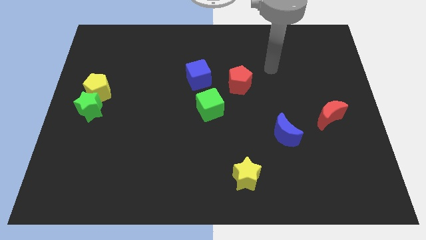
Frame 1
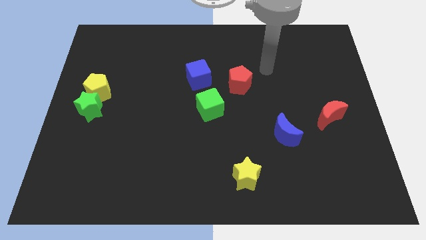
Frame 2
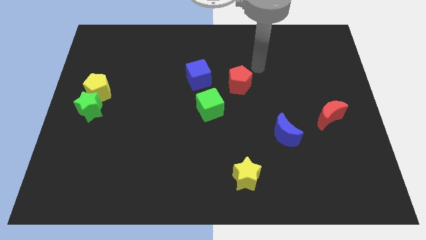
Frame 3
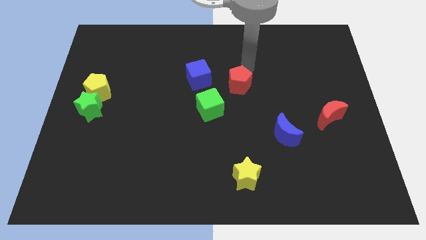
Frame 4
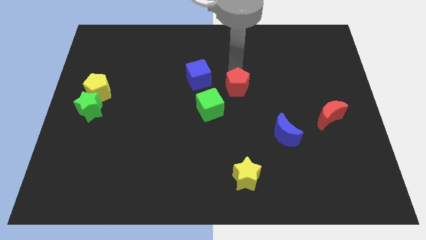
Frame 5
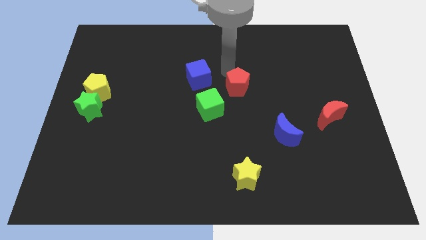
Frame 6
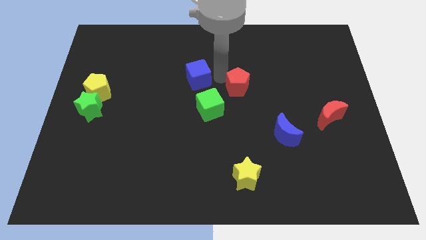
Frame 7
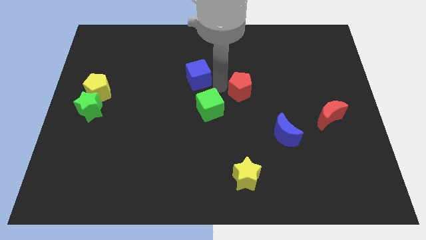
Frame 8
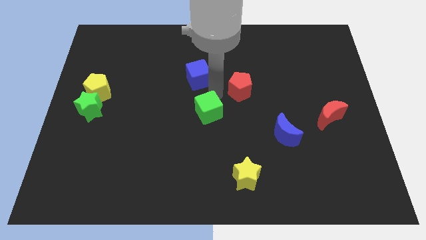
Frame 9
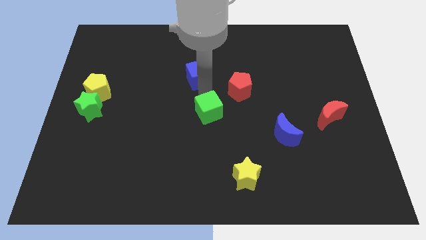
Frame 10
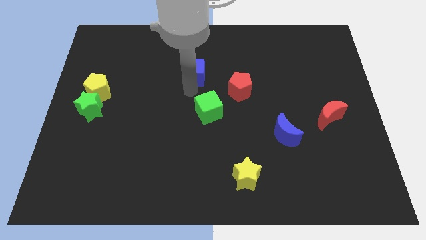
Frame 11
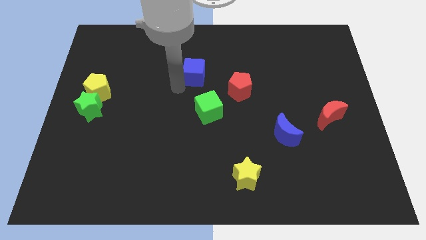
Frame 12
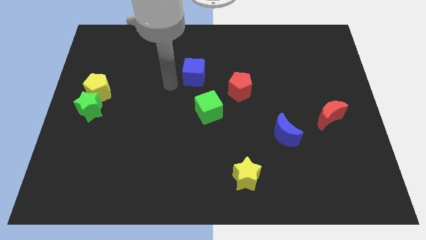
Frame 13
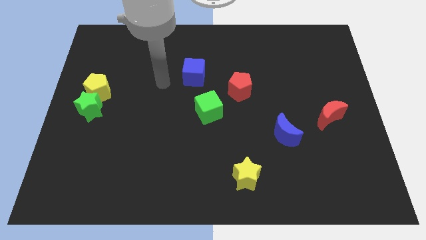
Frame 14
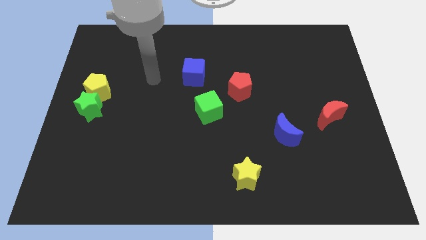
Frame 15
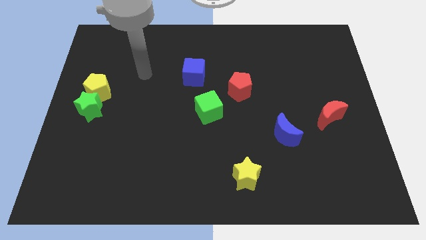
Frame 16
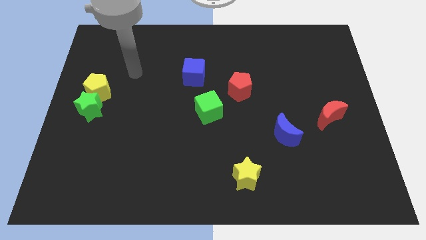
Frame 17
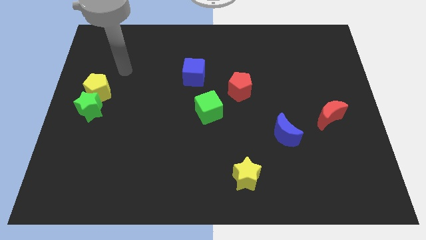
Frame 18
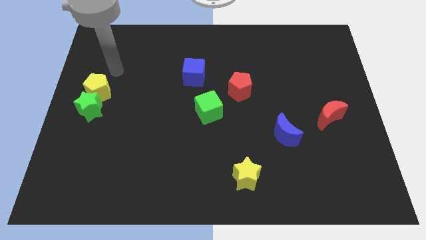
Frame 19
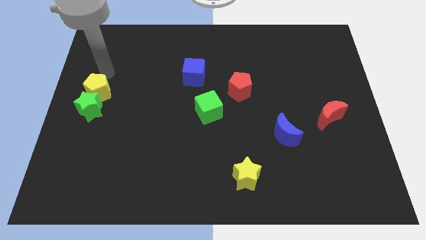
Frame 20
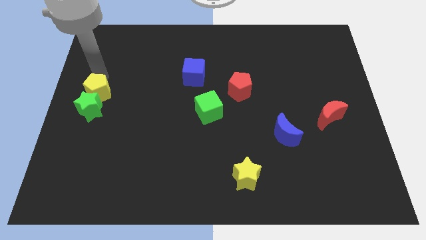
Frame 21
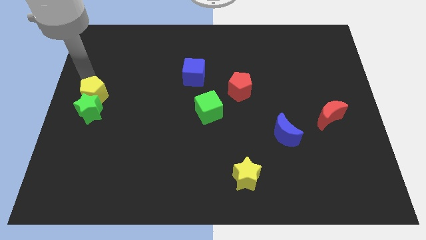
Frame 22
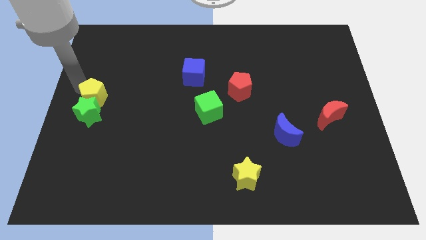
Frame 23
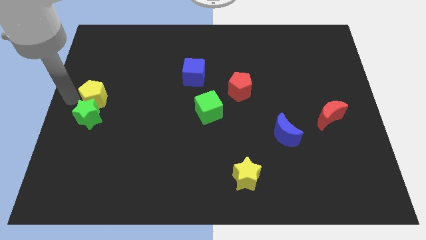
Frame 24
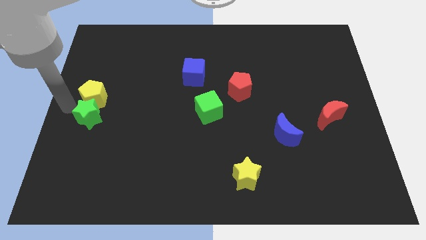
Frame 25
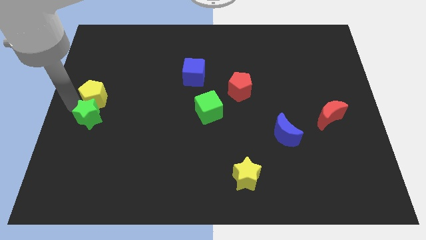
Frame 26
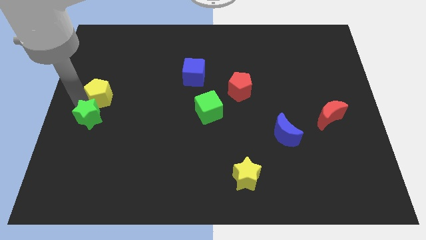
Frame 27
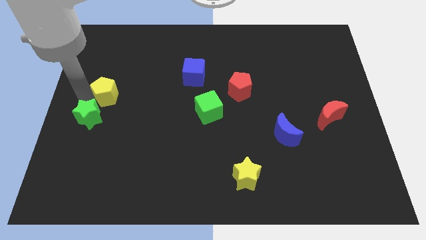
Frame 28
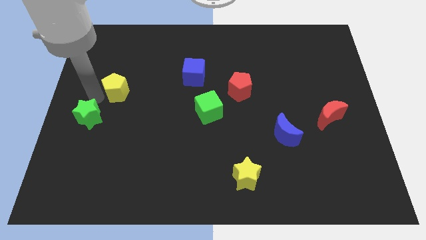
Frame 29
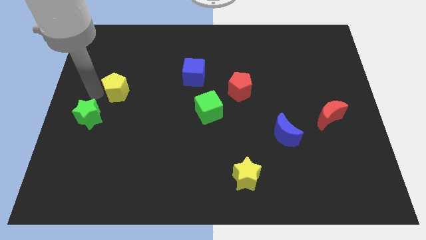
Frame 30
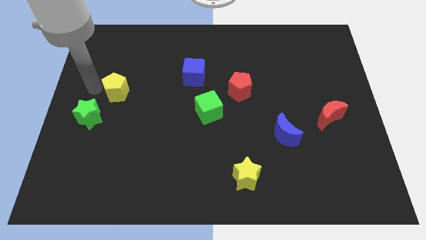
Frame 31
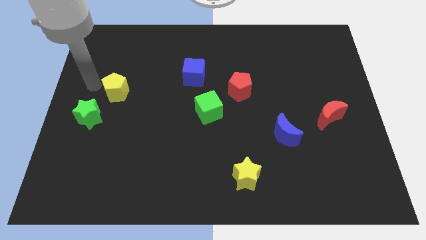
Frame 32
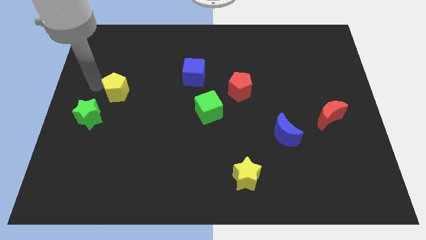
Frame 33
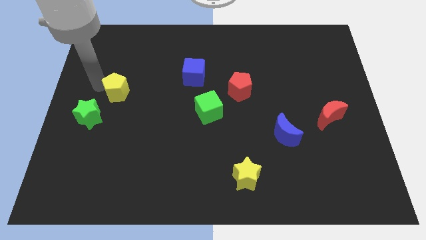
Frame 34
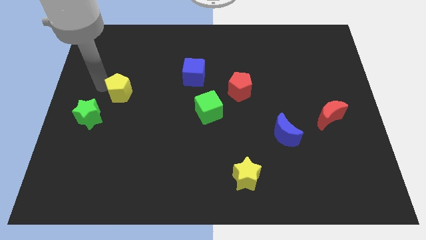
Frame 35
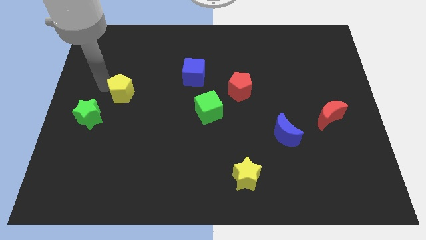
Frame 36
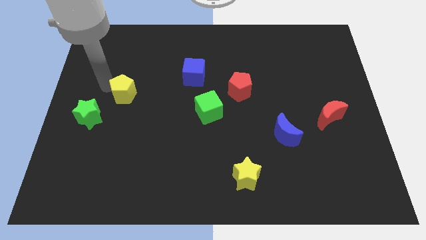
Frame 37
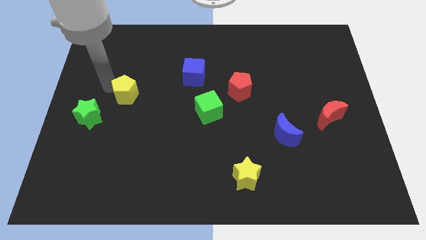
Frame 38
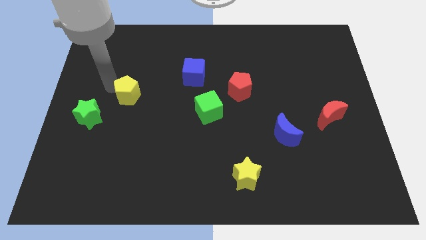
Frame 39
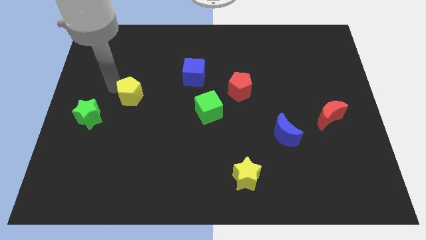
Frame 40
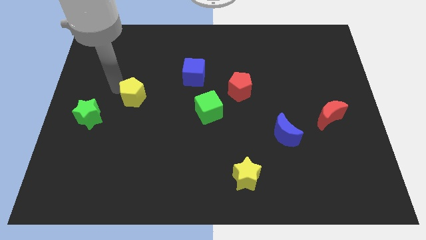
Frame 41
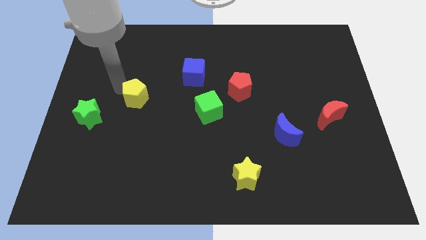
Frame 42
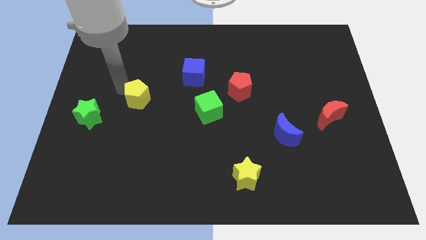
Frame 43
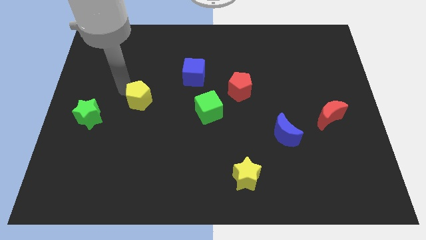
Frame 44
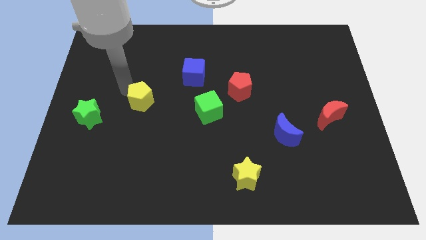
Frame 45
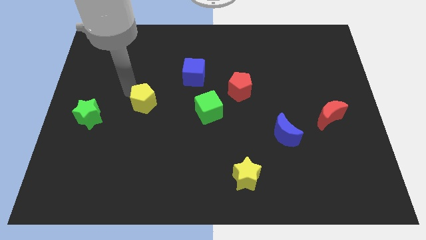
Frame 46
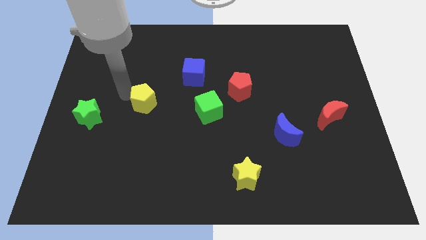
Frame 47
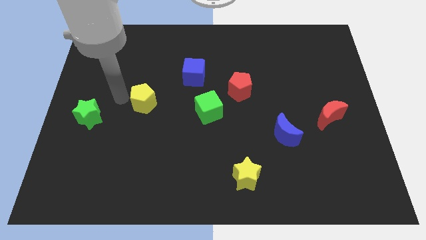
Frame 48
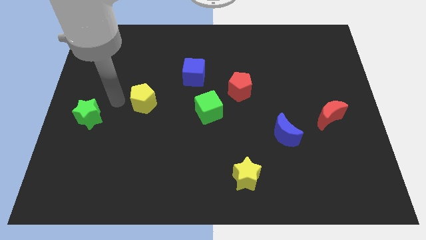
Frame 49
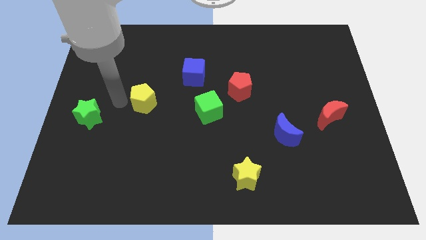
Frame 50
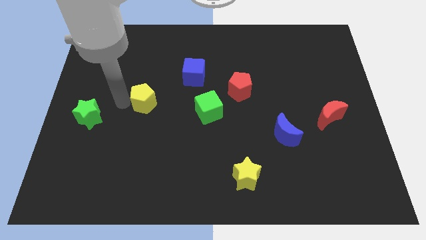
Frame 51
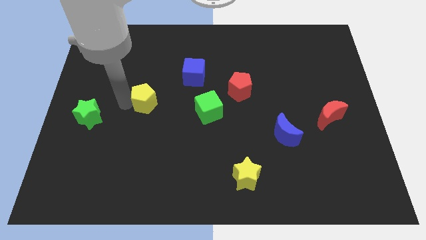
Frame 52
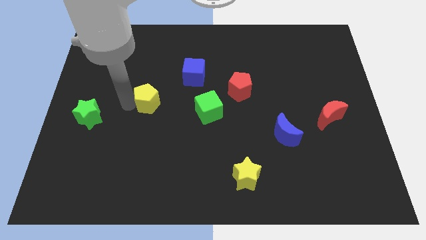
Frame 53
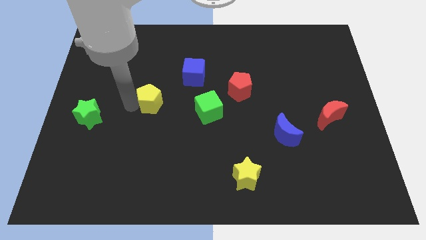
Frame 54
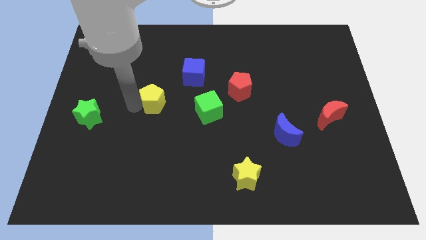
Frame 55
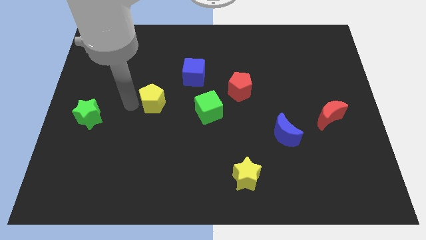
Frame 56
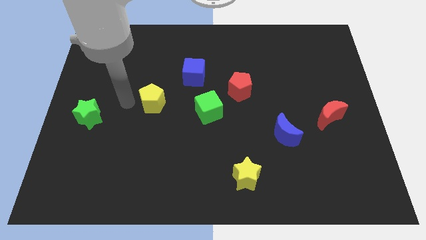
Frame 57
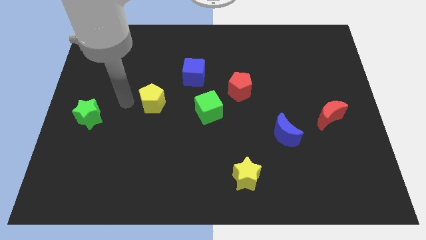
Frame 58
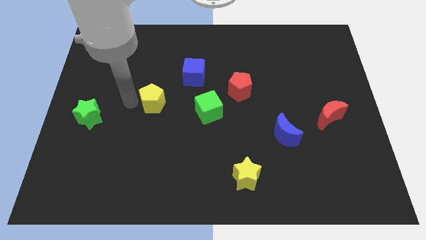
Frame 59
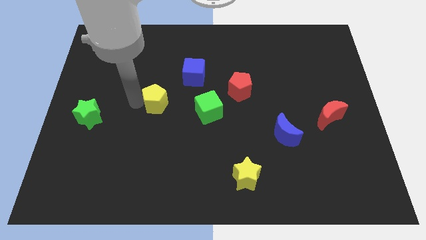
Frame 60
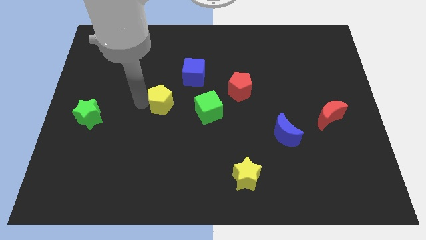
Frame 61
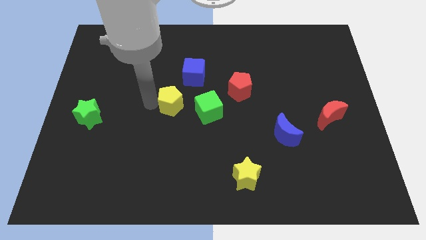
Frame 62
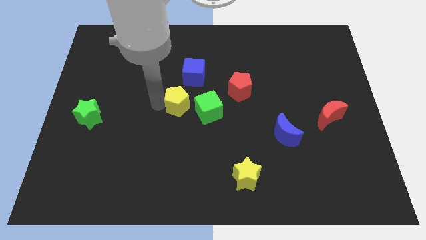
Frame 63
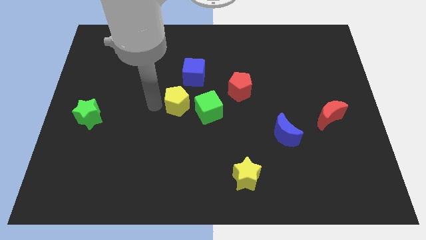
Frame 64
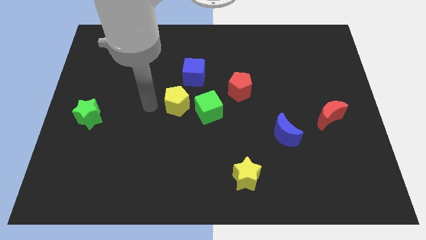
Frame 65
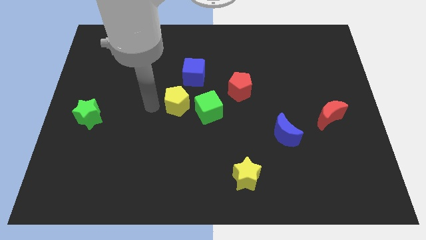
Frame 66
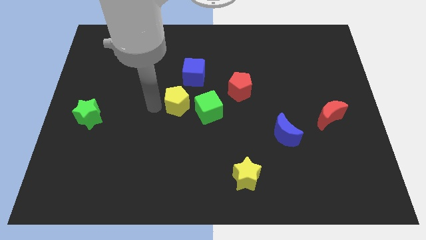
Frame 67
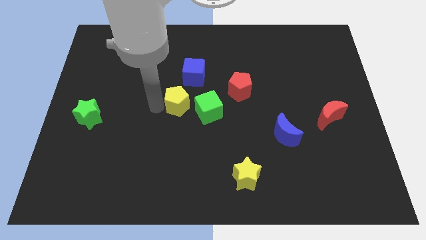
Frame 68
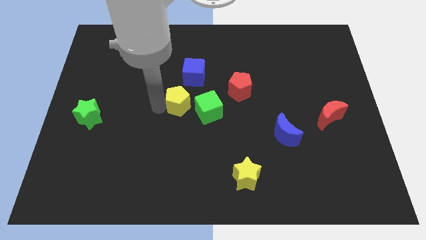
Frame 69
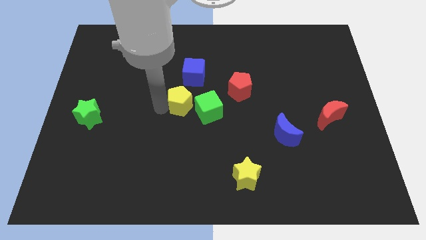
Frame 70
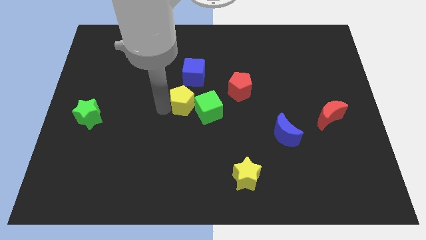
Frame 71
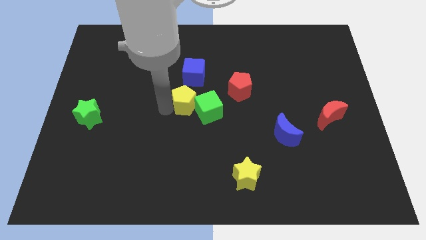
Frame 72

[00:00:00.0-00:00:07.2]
move the yellow pentagon next to the green cube
